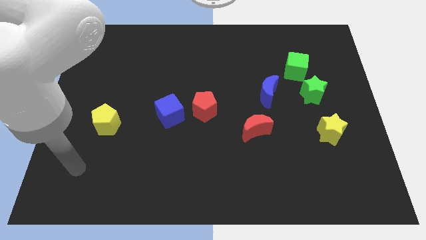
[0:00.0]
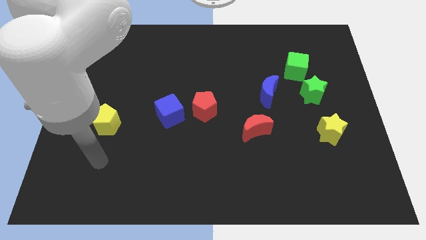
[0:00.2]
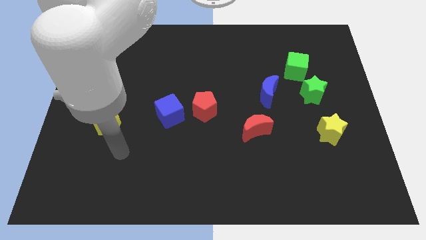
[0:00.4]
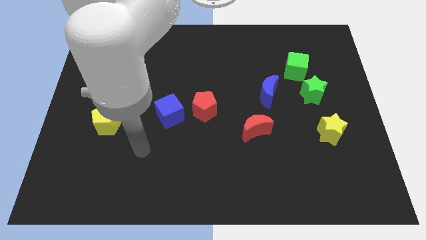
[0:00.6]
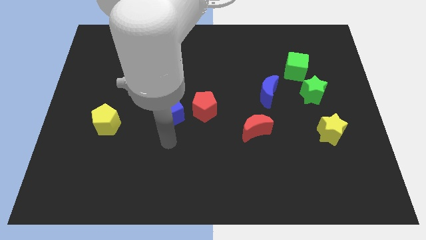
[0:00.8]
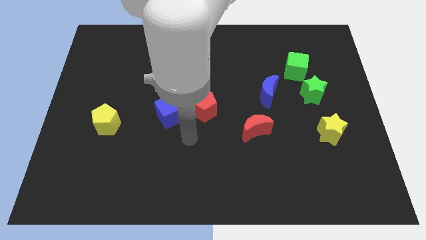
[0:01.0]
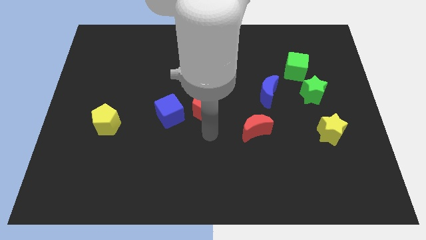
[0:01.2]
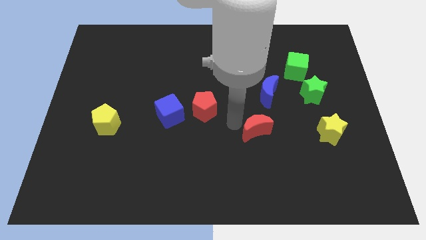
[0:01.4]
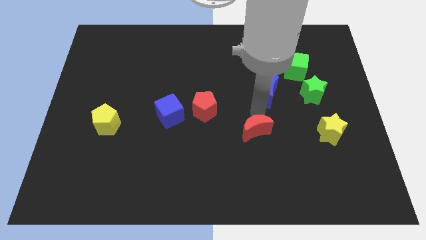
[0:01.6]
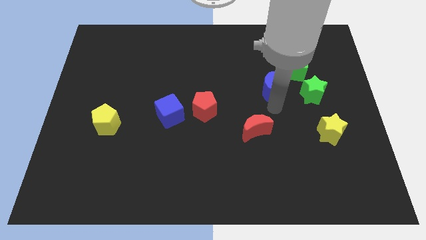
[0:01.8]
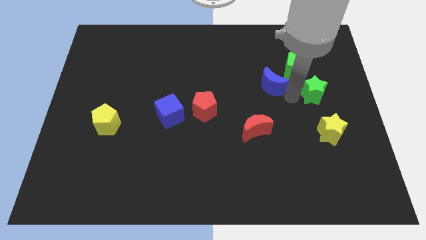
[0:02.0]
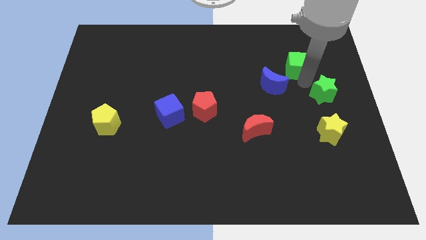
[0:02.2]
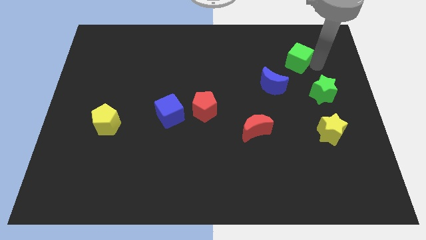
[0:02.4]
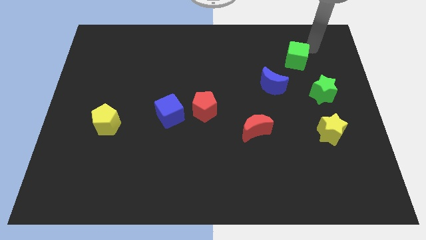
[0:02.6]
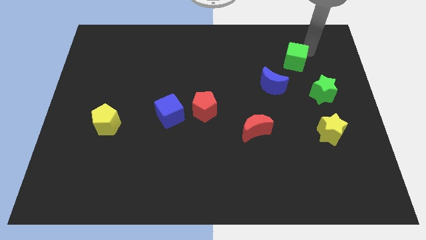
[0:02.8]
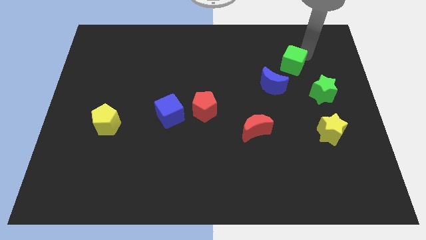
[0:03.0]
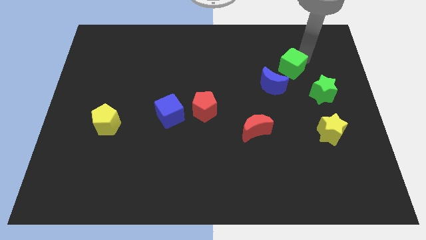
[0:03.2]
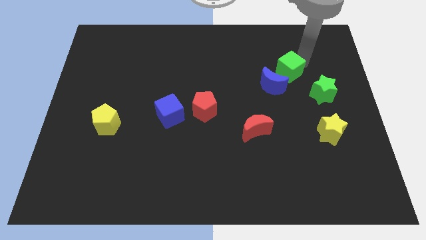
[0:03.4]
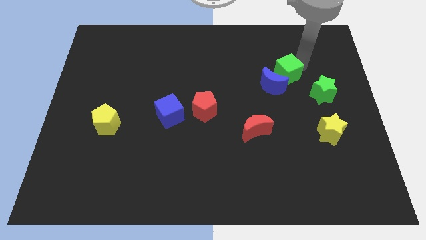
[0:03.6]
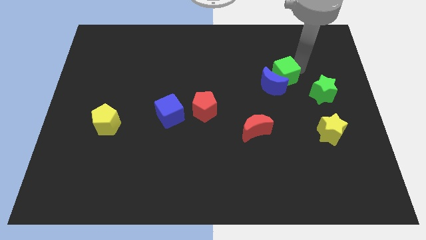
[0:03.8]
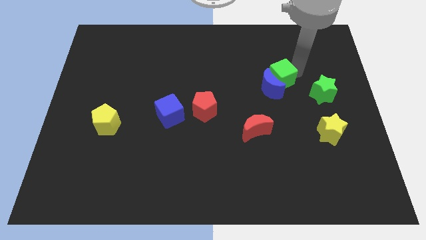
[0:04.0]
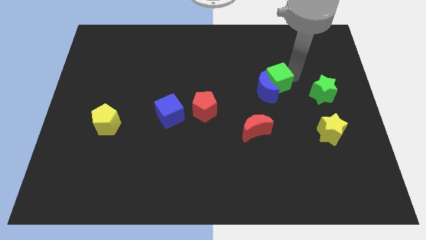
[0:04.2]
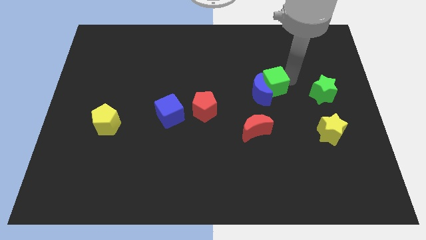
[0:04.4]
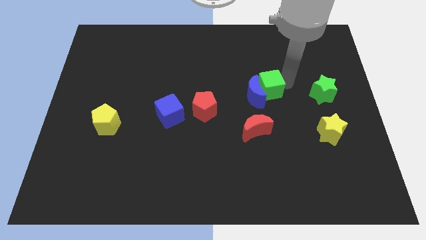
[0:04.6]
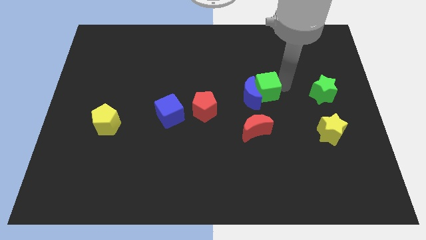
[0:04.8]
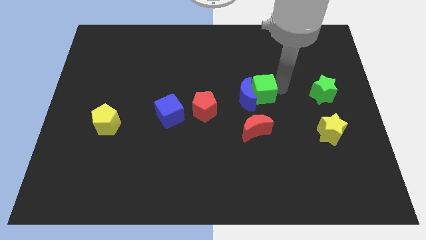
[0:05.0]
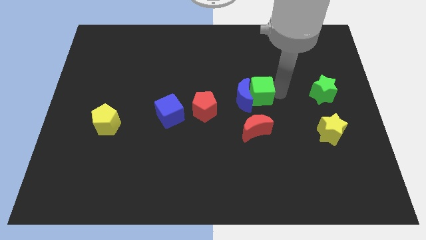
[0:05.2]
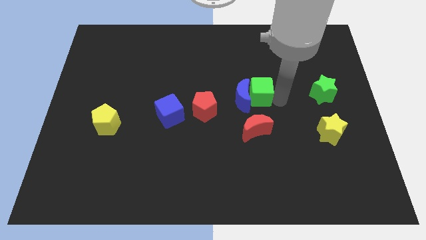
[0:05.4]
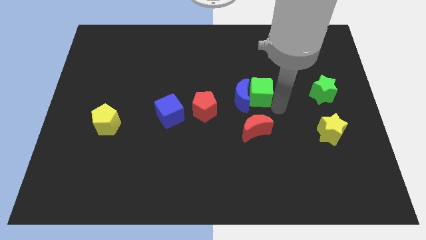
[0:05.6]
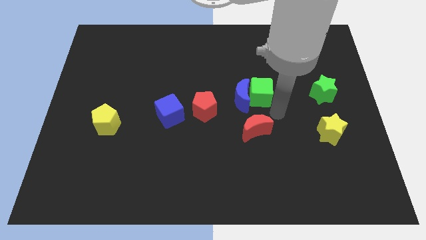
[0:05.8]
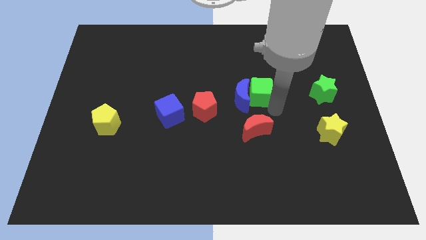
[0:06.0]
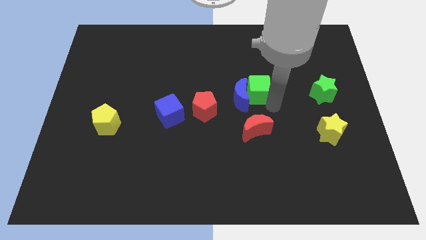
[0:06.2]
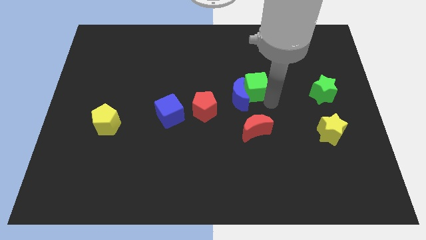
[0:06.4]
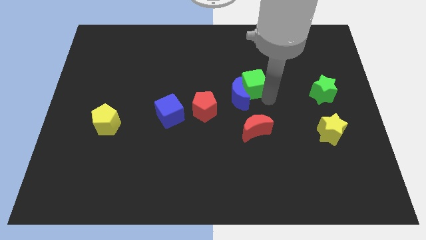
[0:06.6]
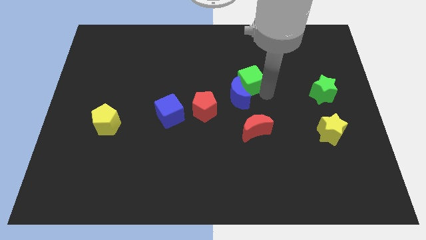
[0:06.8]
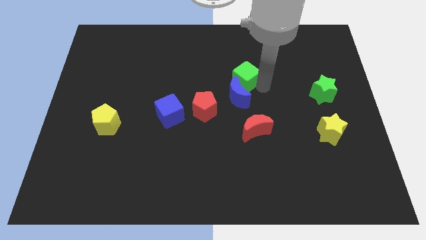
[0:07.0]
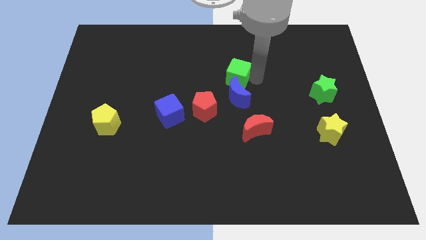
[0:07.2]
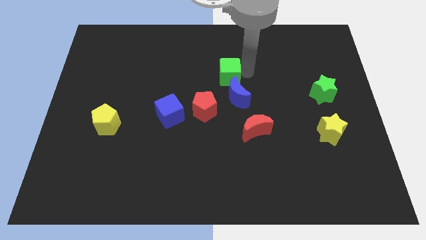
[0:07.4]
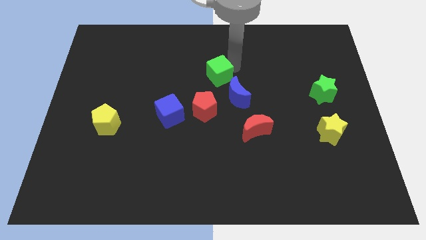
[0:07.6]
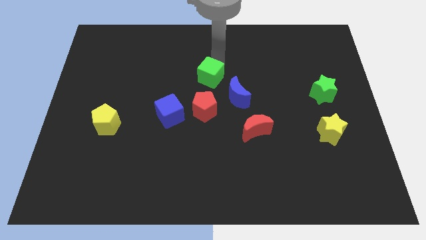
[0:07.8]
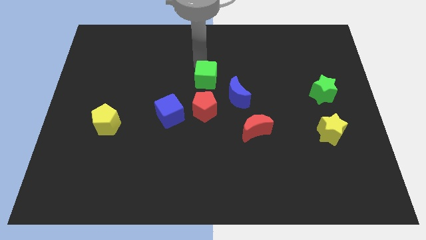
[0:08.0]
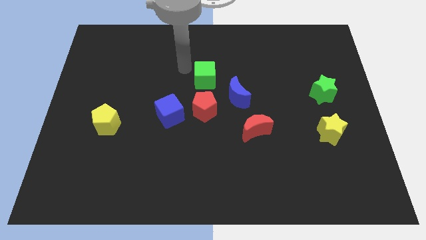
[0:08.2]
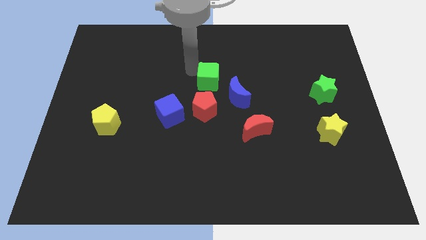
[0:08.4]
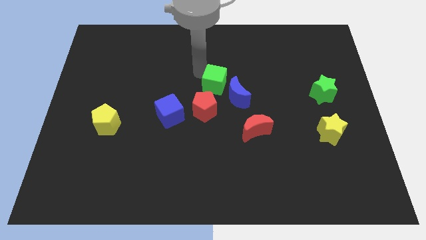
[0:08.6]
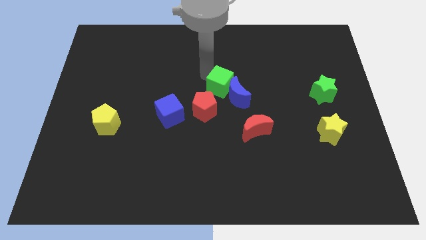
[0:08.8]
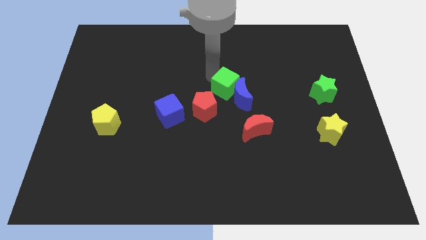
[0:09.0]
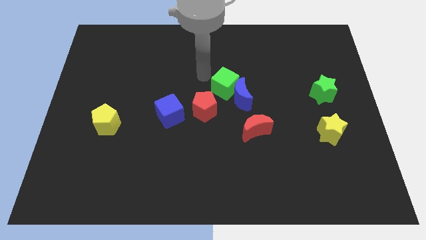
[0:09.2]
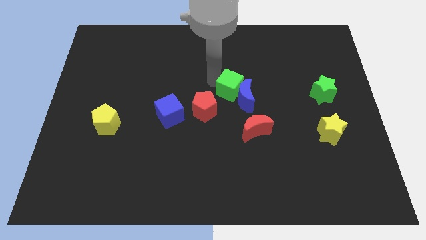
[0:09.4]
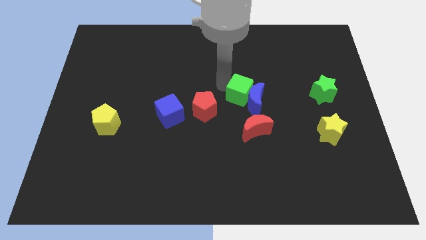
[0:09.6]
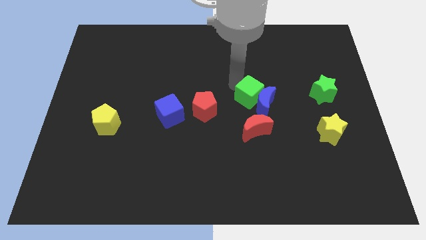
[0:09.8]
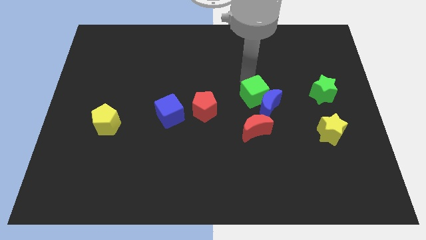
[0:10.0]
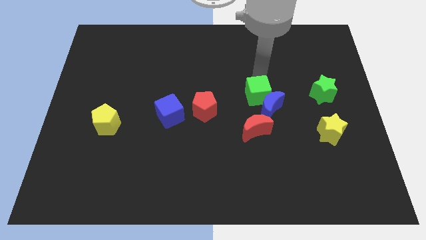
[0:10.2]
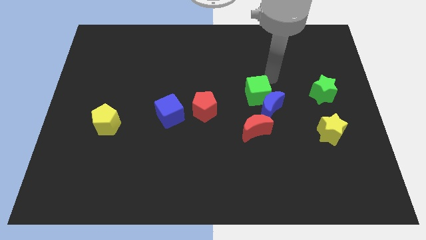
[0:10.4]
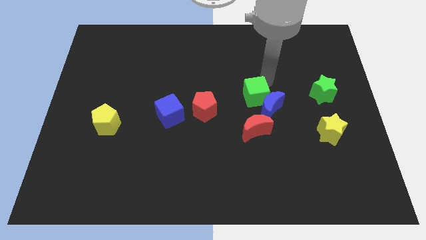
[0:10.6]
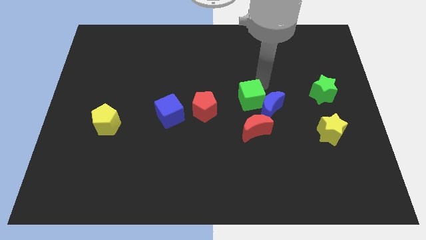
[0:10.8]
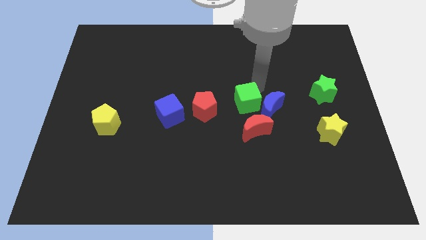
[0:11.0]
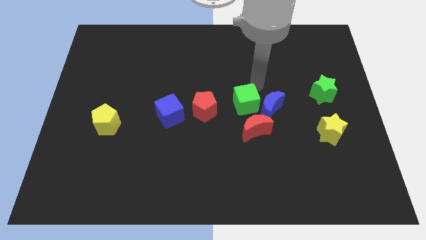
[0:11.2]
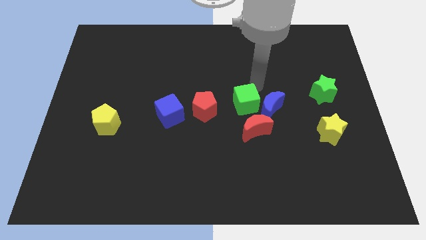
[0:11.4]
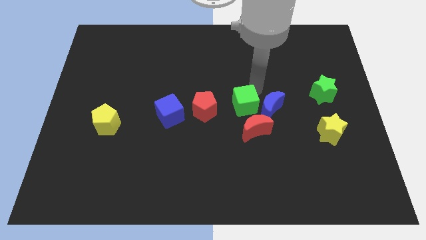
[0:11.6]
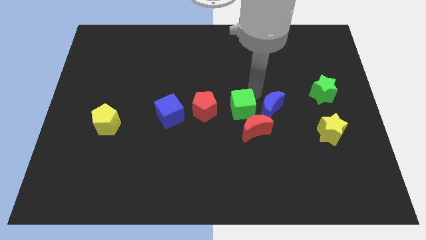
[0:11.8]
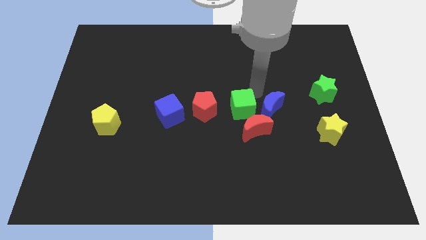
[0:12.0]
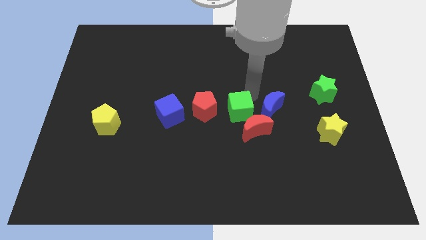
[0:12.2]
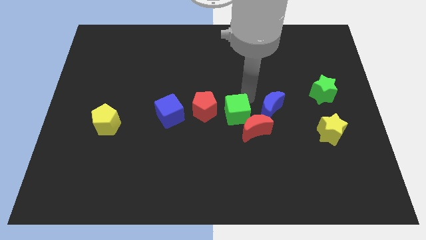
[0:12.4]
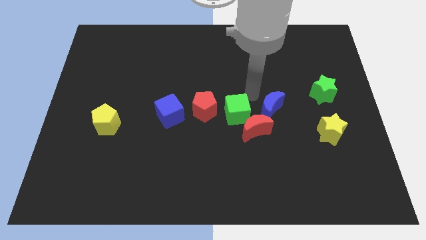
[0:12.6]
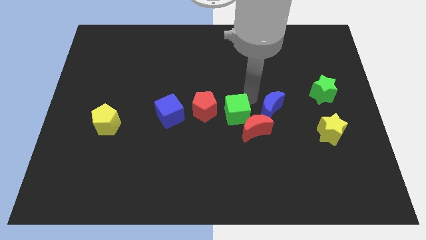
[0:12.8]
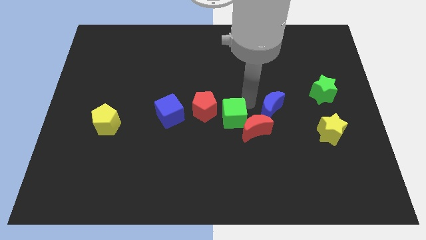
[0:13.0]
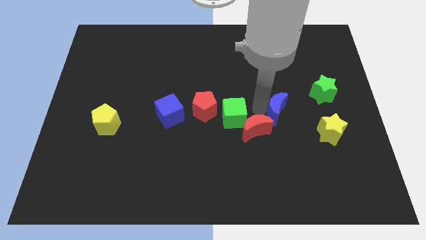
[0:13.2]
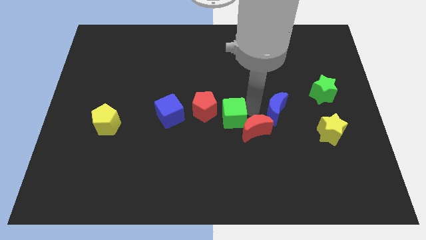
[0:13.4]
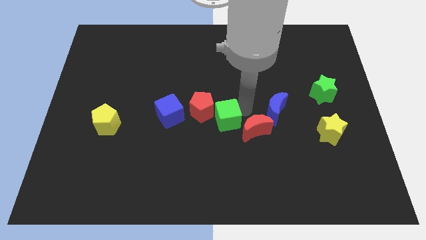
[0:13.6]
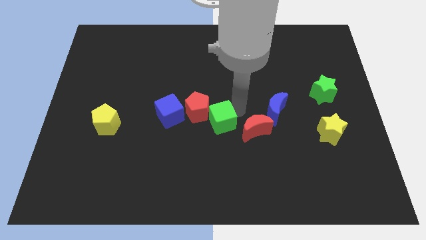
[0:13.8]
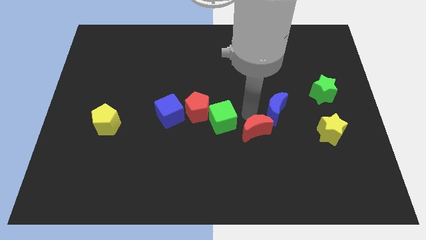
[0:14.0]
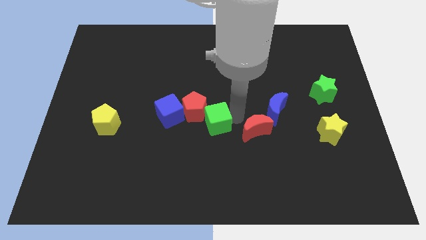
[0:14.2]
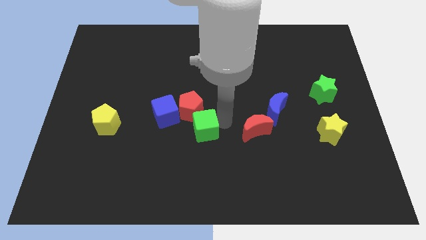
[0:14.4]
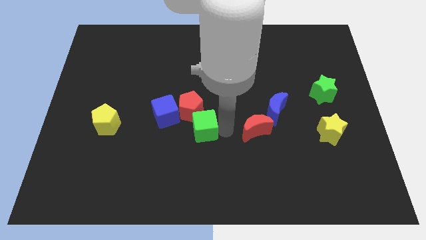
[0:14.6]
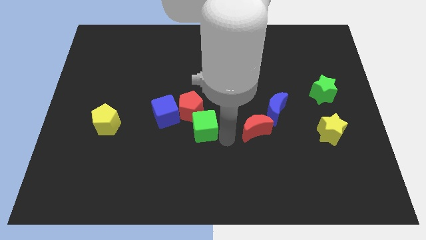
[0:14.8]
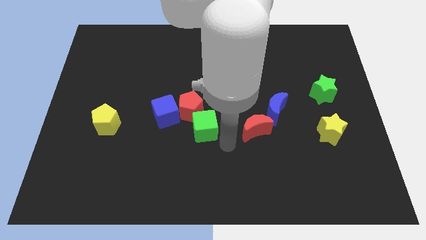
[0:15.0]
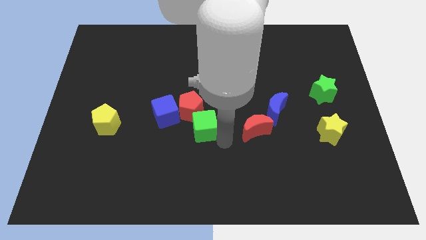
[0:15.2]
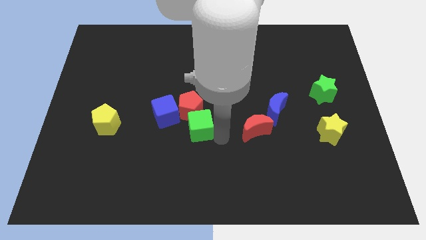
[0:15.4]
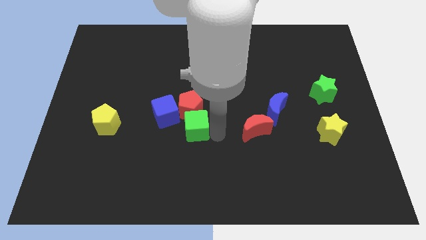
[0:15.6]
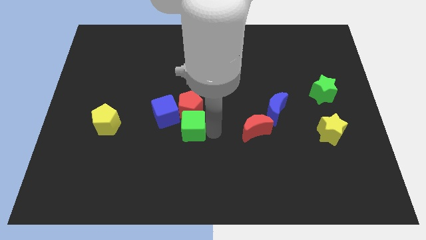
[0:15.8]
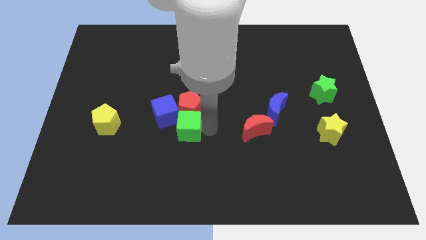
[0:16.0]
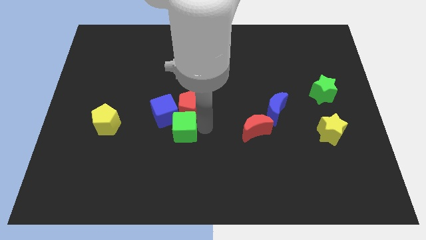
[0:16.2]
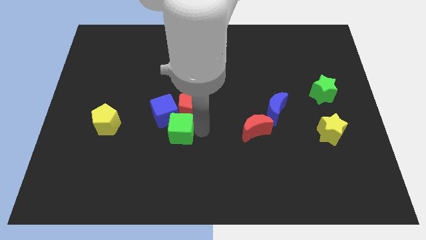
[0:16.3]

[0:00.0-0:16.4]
slide the green cube towards the blue cube
